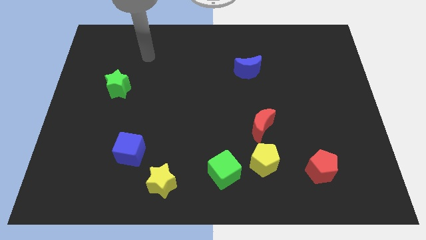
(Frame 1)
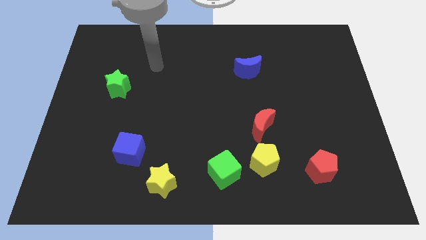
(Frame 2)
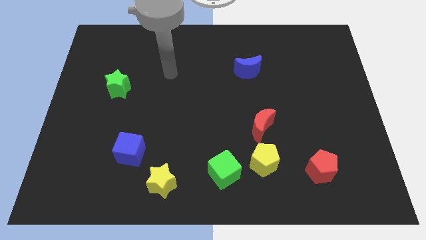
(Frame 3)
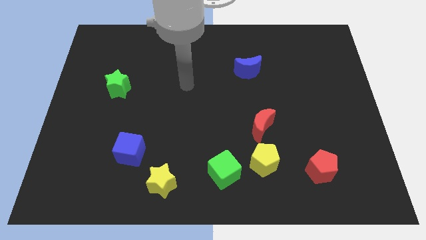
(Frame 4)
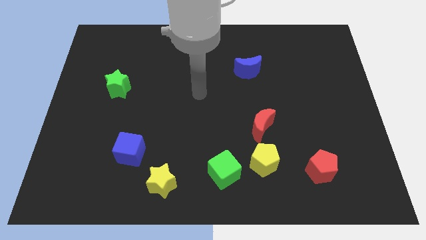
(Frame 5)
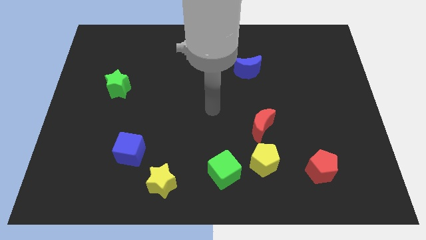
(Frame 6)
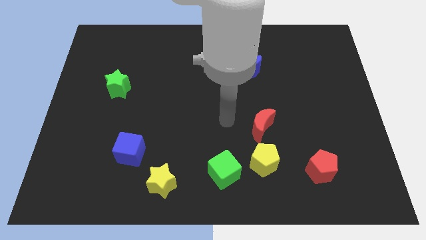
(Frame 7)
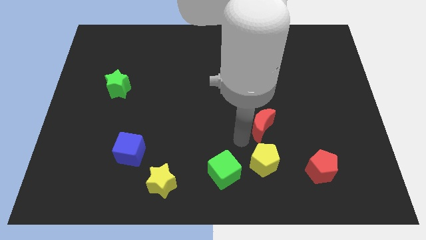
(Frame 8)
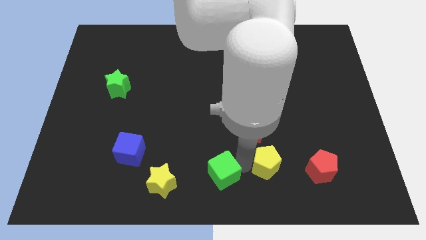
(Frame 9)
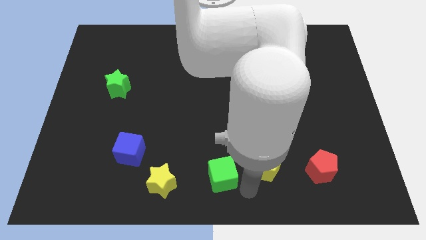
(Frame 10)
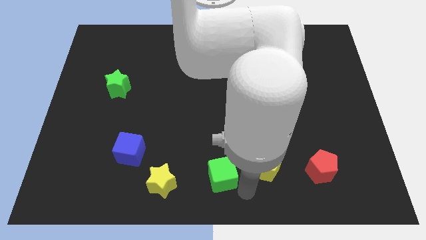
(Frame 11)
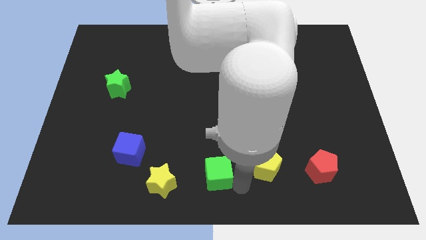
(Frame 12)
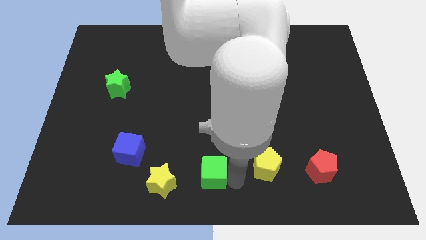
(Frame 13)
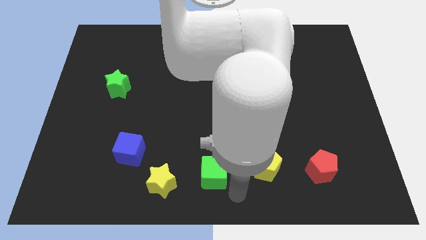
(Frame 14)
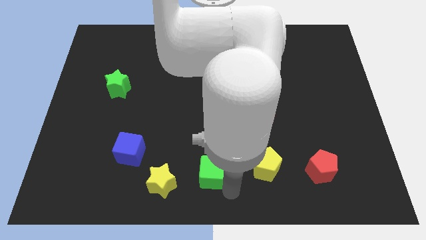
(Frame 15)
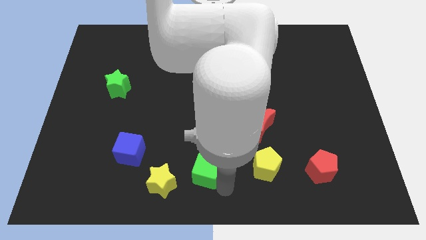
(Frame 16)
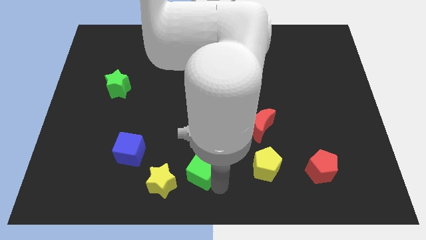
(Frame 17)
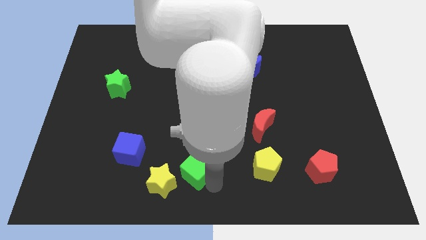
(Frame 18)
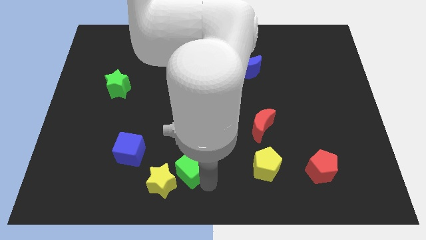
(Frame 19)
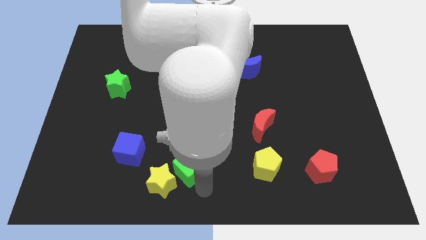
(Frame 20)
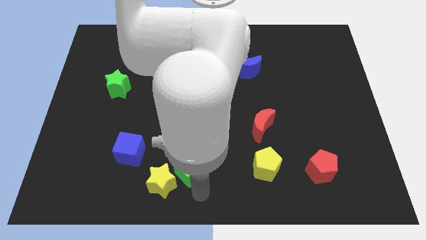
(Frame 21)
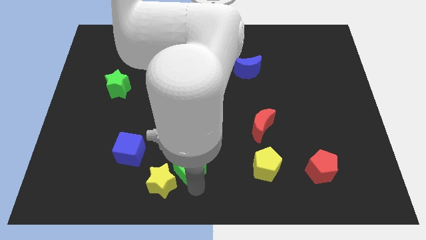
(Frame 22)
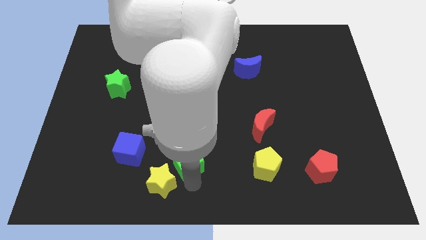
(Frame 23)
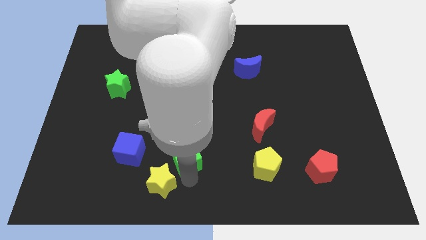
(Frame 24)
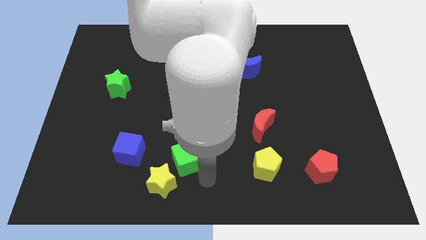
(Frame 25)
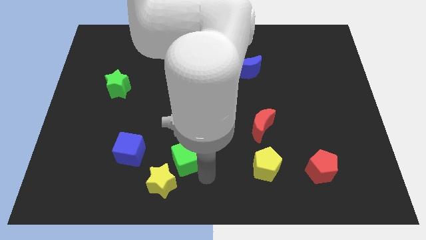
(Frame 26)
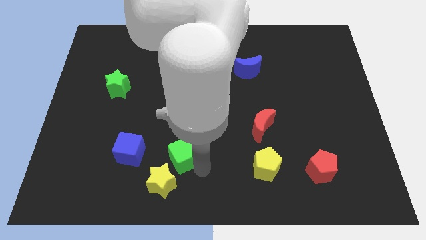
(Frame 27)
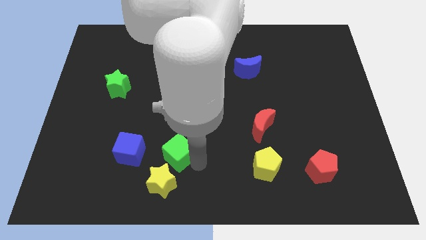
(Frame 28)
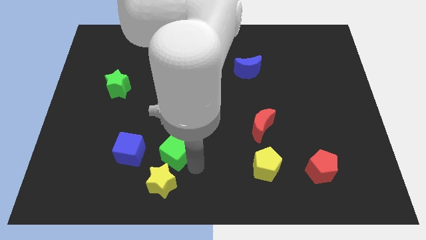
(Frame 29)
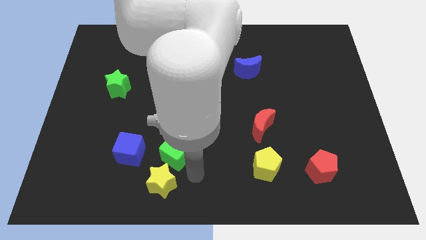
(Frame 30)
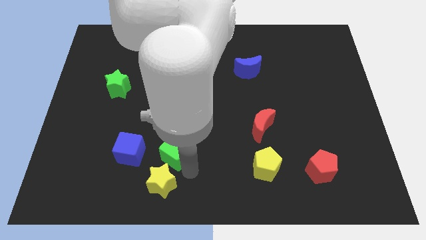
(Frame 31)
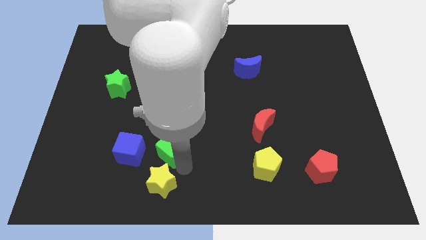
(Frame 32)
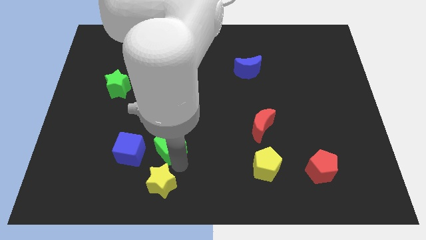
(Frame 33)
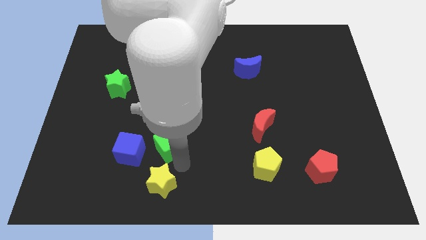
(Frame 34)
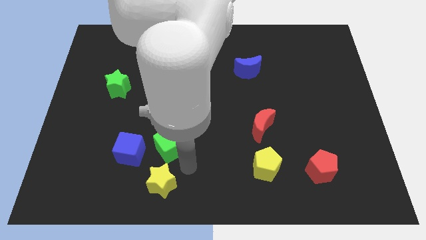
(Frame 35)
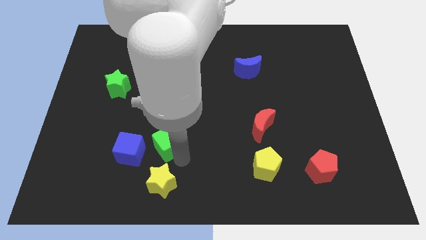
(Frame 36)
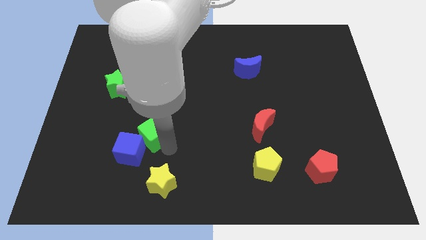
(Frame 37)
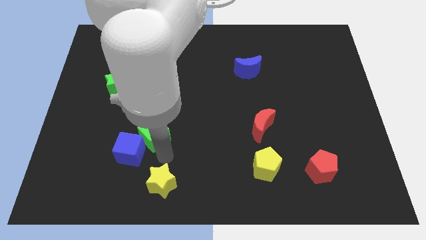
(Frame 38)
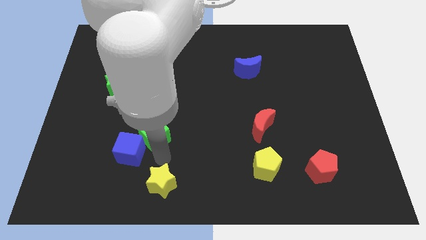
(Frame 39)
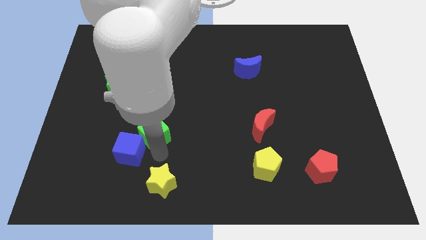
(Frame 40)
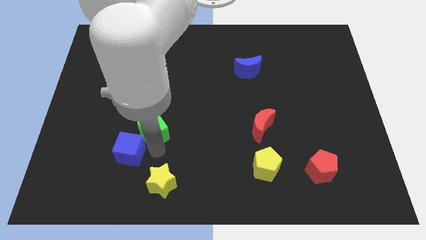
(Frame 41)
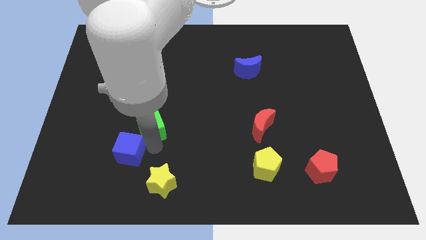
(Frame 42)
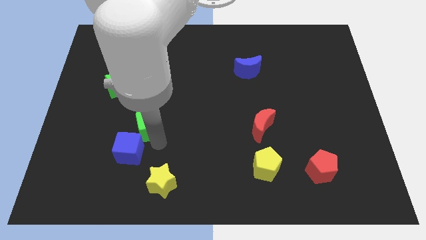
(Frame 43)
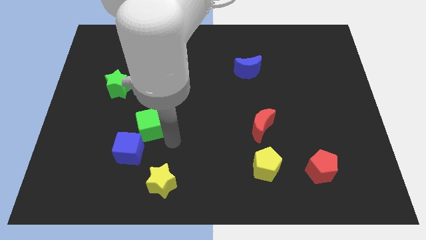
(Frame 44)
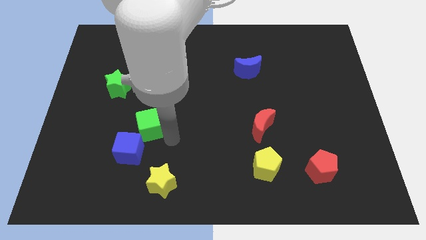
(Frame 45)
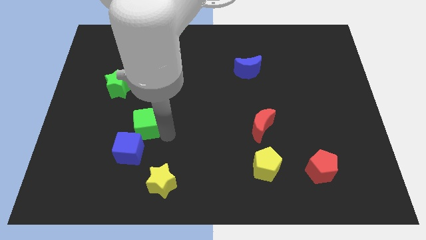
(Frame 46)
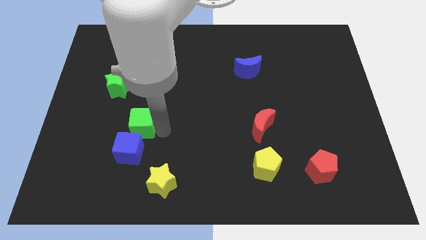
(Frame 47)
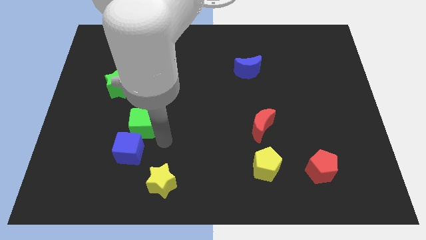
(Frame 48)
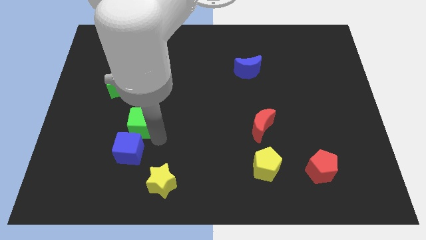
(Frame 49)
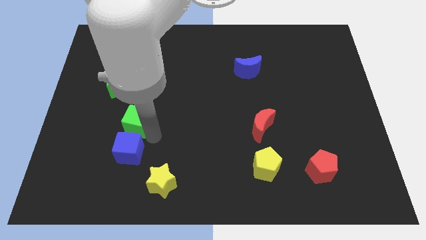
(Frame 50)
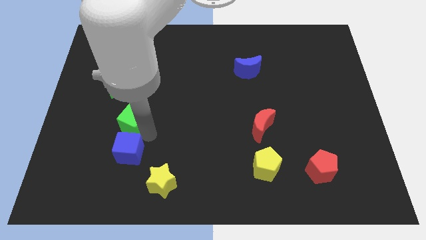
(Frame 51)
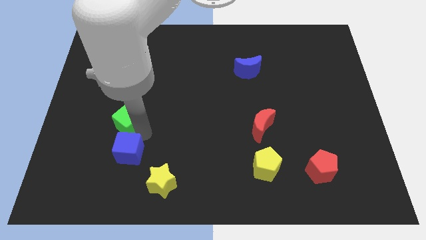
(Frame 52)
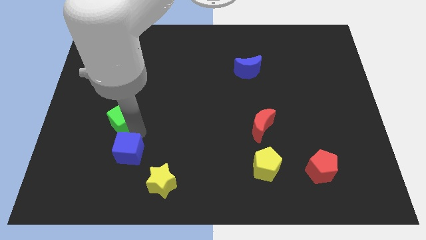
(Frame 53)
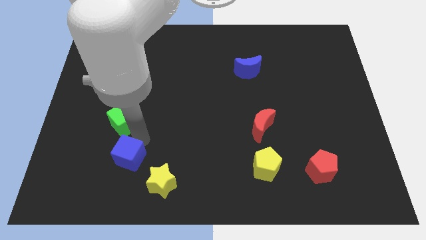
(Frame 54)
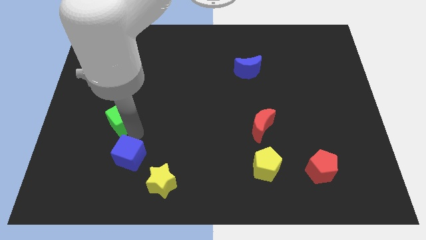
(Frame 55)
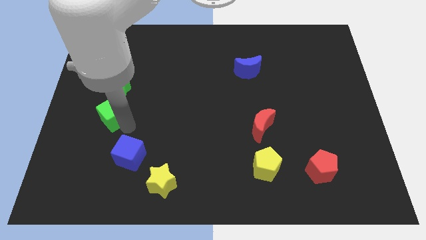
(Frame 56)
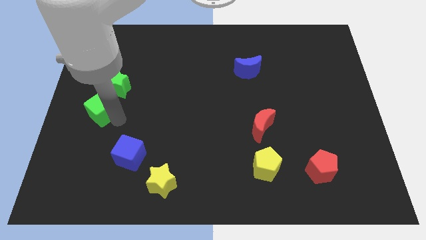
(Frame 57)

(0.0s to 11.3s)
slide the green cube to the left side
